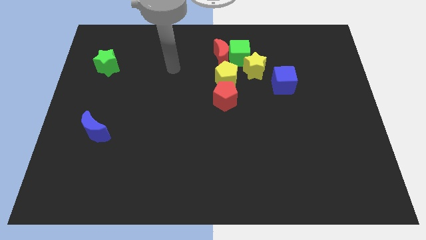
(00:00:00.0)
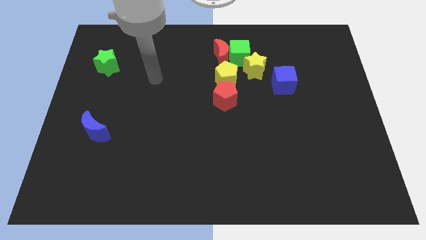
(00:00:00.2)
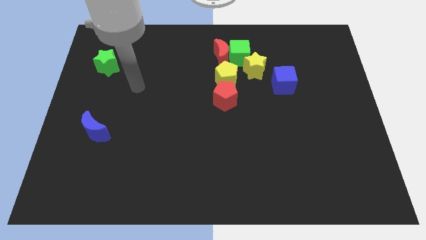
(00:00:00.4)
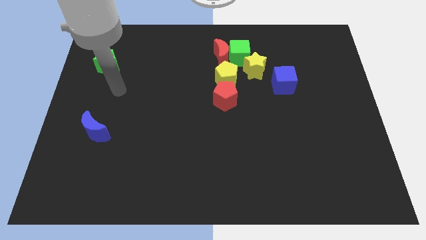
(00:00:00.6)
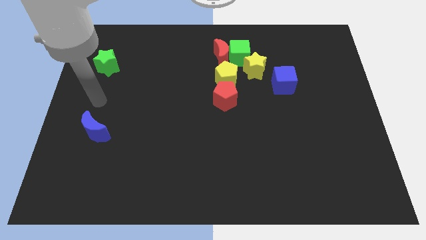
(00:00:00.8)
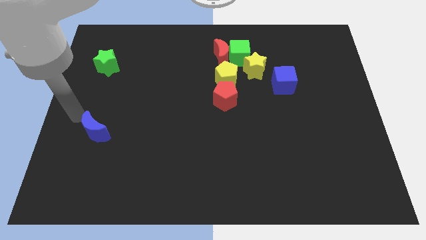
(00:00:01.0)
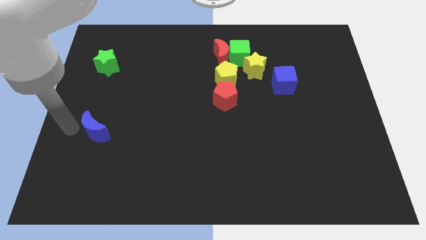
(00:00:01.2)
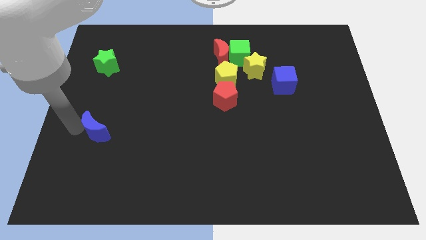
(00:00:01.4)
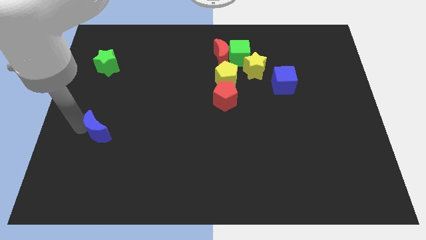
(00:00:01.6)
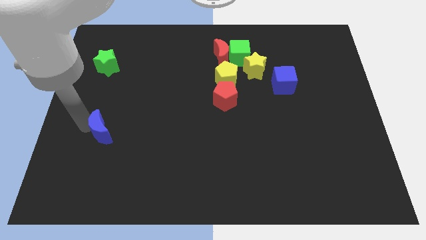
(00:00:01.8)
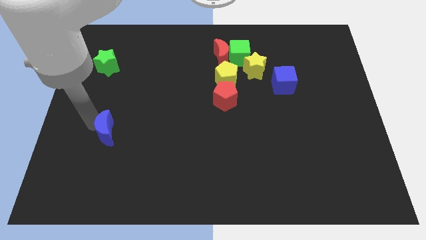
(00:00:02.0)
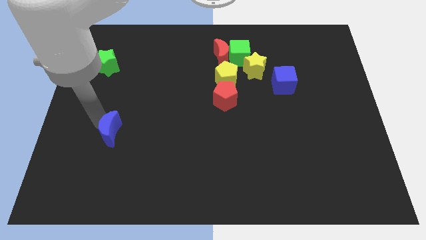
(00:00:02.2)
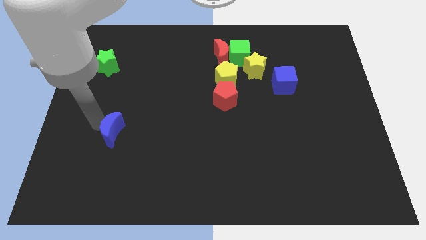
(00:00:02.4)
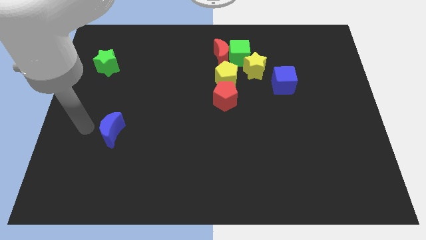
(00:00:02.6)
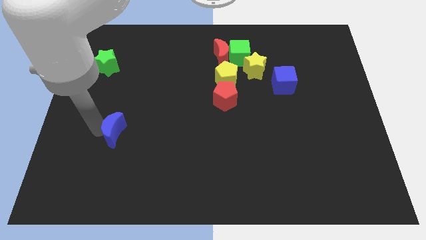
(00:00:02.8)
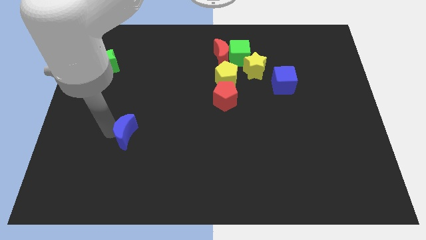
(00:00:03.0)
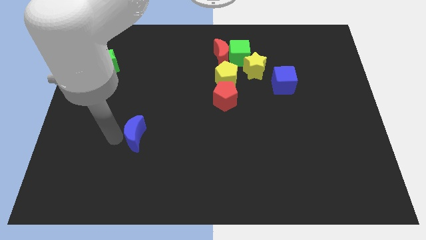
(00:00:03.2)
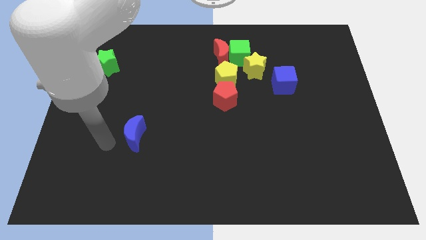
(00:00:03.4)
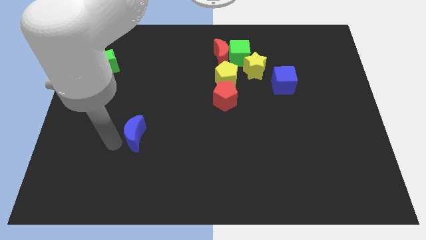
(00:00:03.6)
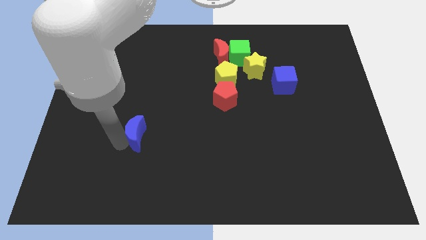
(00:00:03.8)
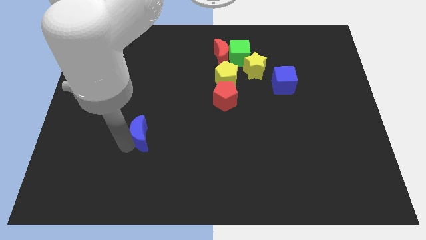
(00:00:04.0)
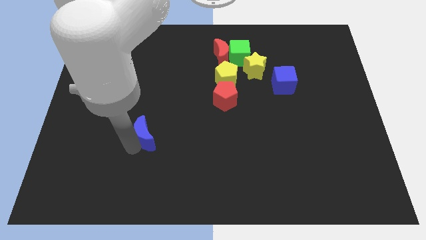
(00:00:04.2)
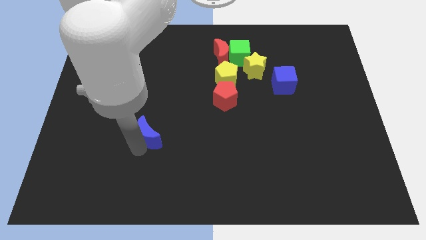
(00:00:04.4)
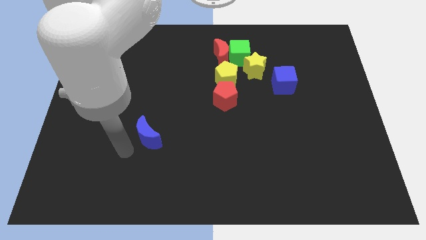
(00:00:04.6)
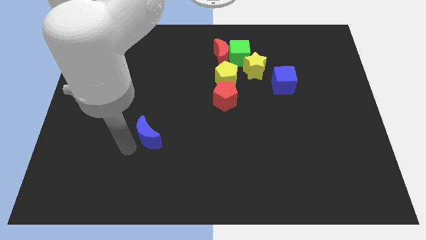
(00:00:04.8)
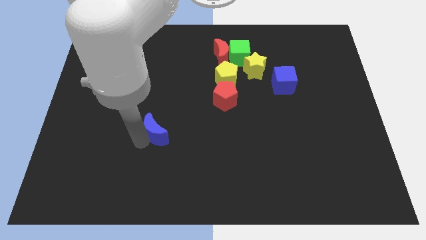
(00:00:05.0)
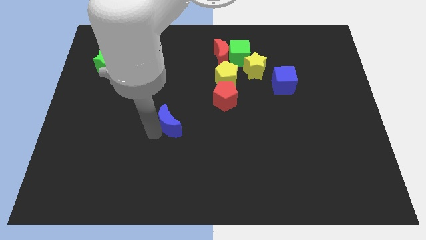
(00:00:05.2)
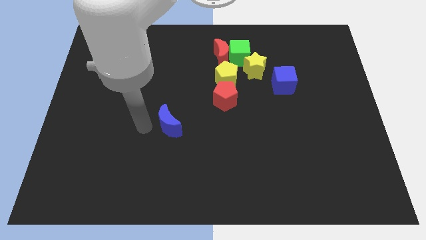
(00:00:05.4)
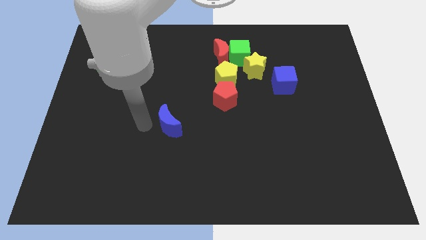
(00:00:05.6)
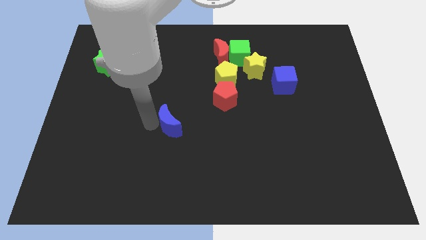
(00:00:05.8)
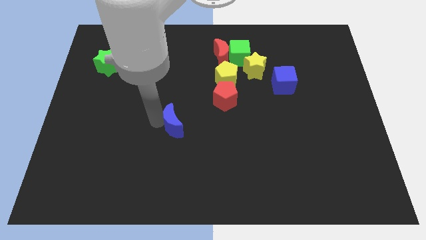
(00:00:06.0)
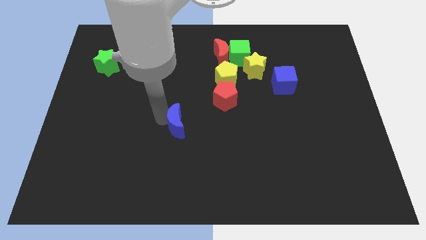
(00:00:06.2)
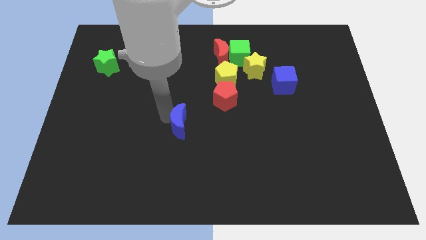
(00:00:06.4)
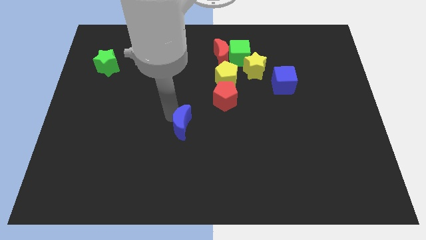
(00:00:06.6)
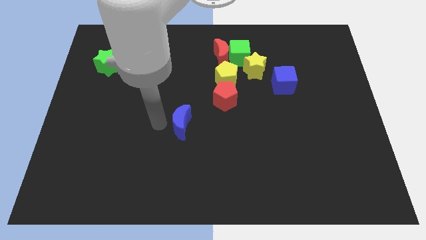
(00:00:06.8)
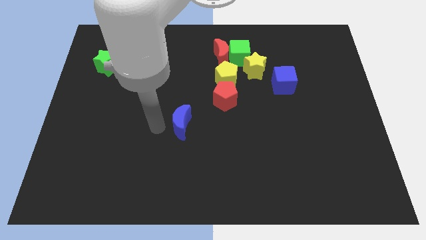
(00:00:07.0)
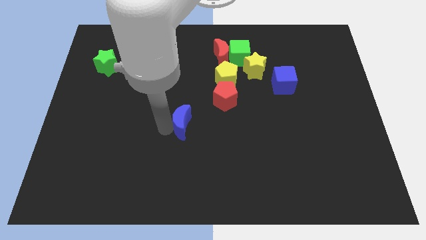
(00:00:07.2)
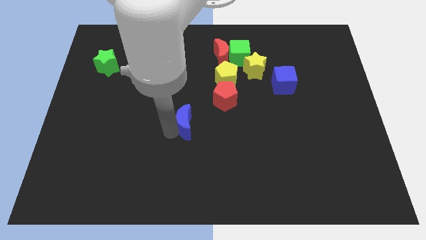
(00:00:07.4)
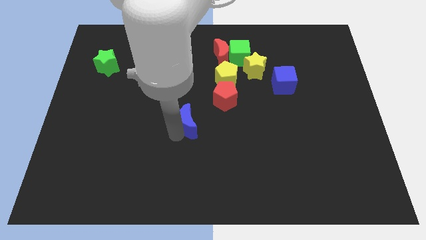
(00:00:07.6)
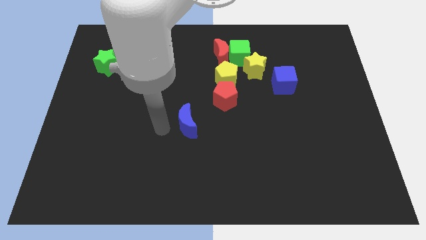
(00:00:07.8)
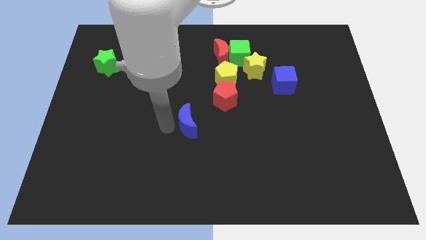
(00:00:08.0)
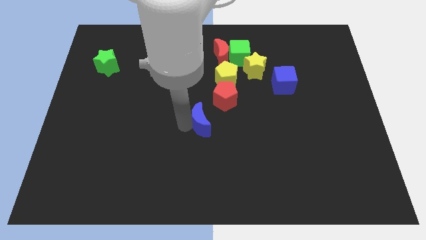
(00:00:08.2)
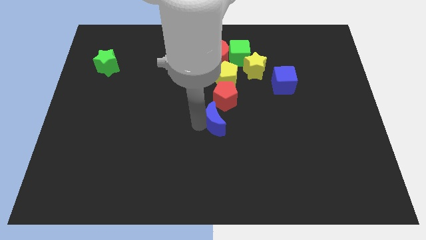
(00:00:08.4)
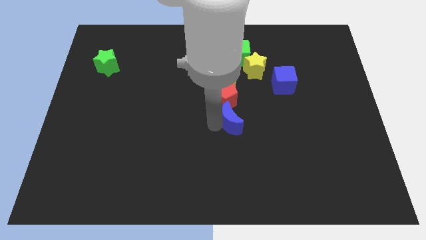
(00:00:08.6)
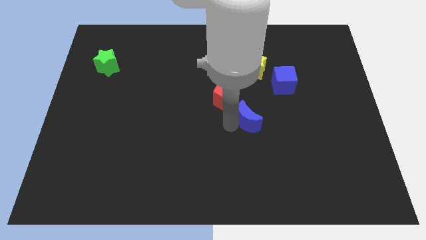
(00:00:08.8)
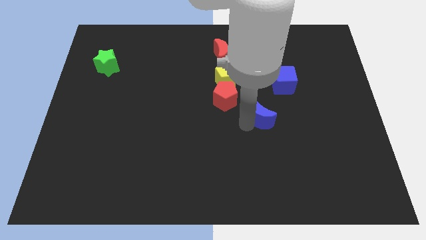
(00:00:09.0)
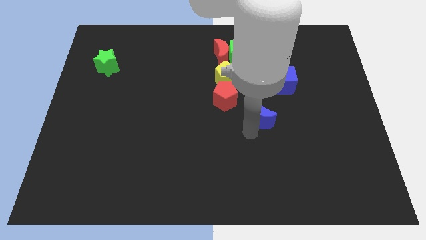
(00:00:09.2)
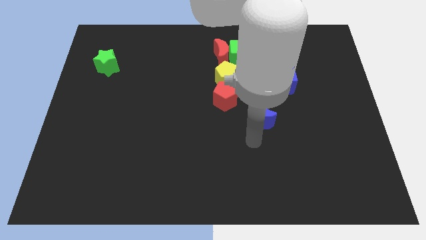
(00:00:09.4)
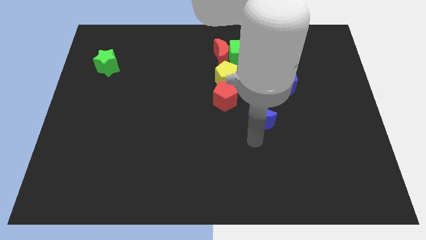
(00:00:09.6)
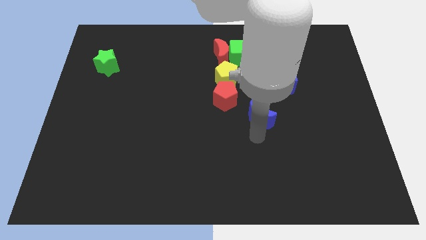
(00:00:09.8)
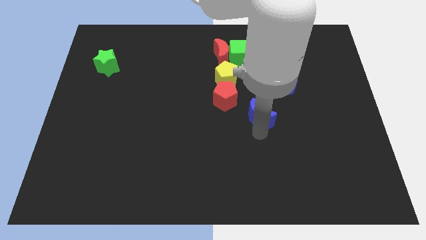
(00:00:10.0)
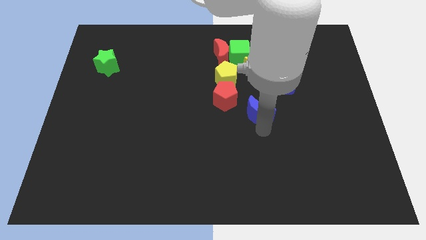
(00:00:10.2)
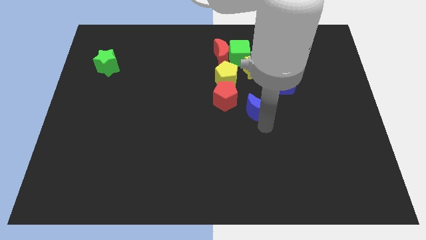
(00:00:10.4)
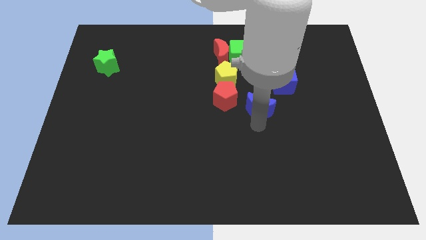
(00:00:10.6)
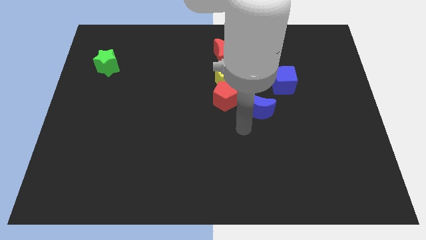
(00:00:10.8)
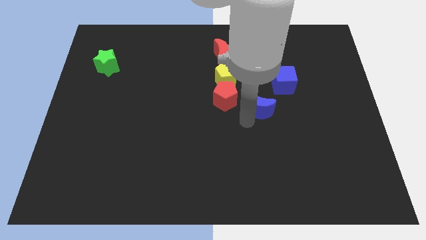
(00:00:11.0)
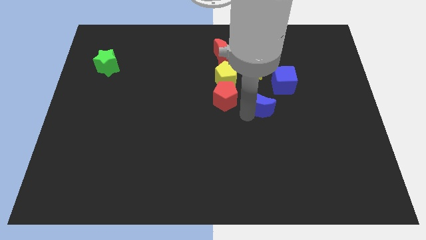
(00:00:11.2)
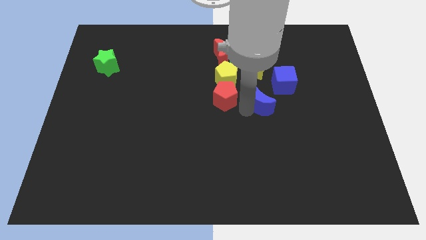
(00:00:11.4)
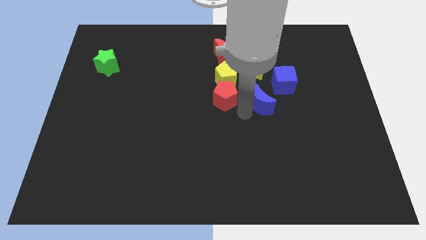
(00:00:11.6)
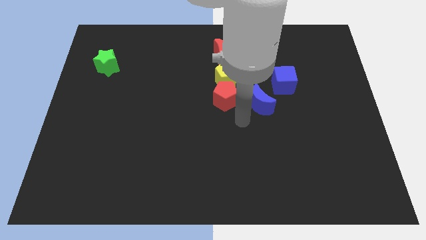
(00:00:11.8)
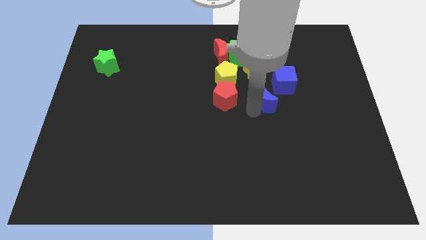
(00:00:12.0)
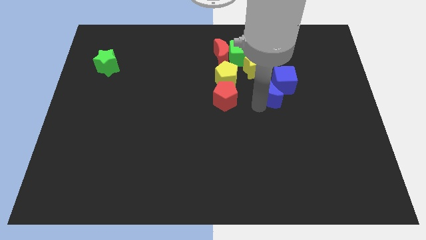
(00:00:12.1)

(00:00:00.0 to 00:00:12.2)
slide the blue moon next to the blue cube

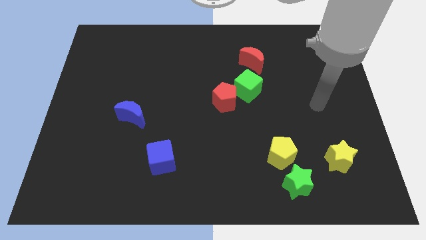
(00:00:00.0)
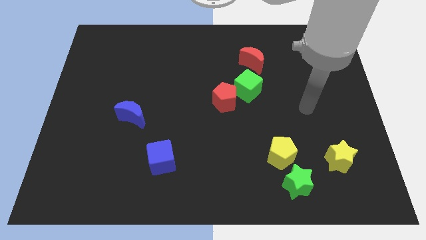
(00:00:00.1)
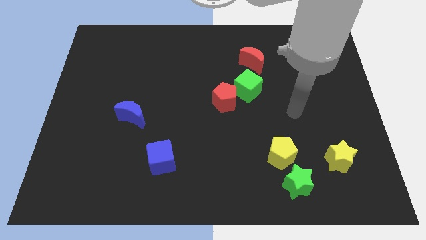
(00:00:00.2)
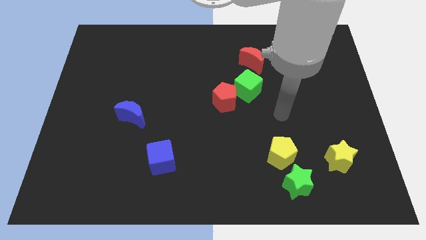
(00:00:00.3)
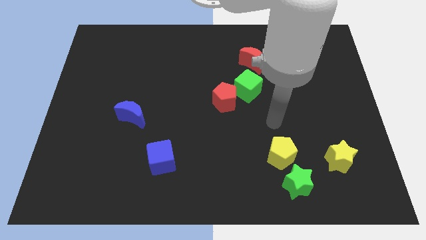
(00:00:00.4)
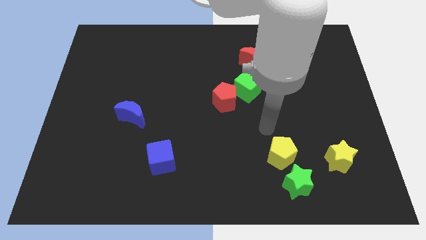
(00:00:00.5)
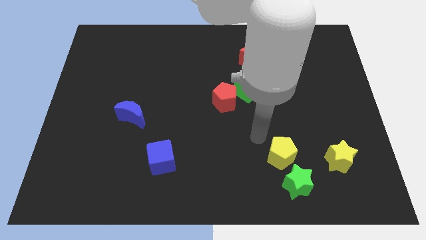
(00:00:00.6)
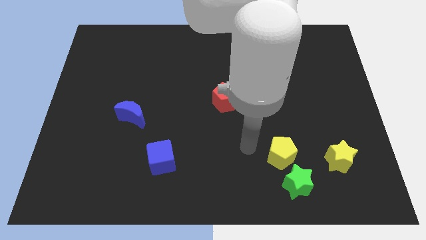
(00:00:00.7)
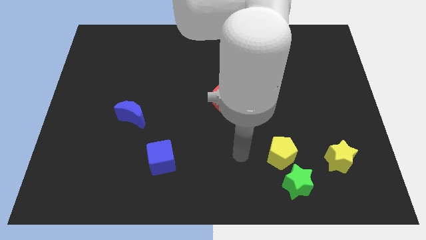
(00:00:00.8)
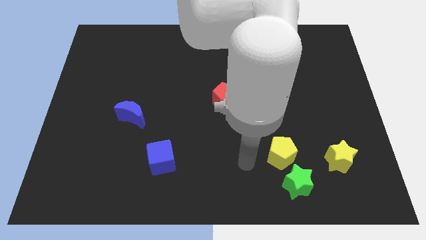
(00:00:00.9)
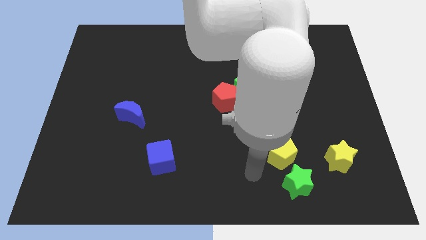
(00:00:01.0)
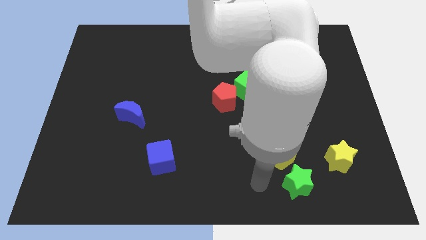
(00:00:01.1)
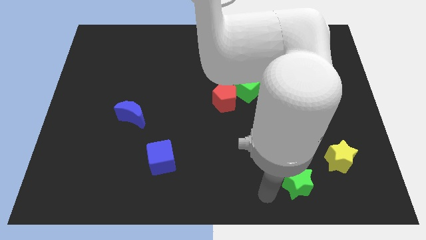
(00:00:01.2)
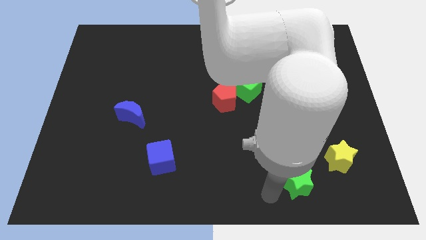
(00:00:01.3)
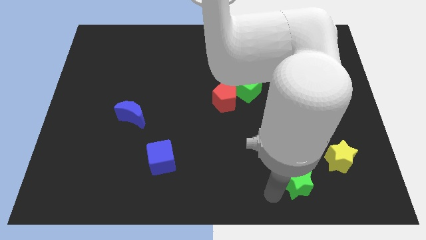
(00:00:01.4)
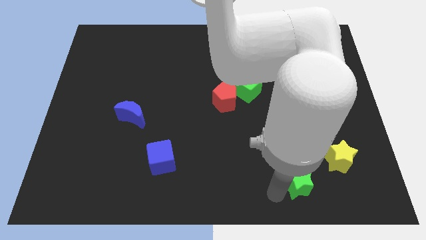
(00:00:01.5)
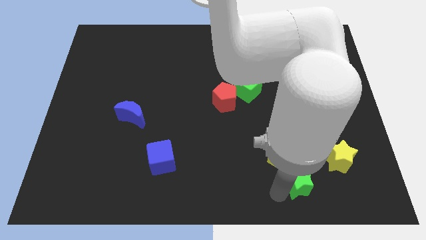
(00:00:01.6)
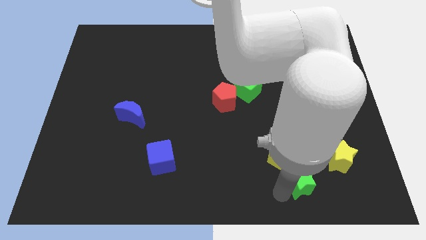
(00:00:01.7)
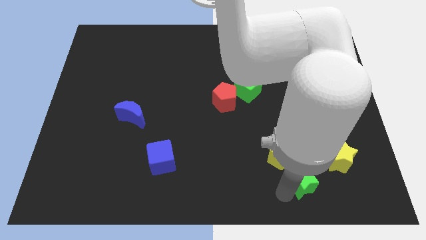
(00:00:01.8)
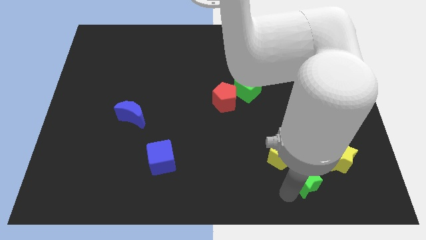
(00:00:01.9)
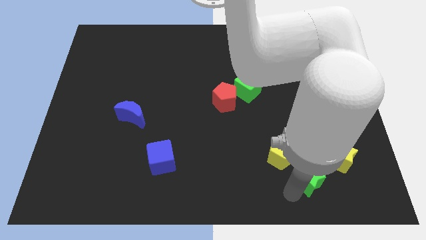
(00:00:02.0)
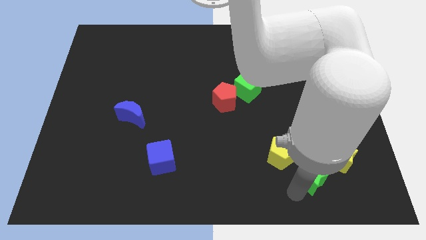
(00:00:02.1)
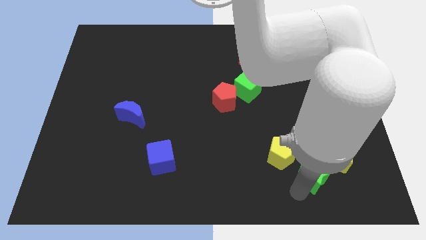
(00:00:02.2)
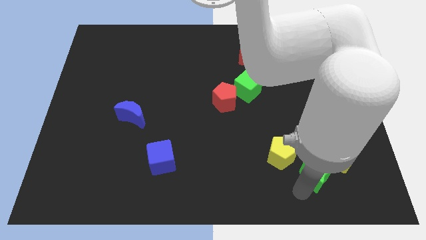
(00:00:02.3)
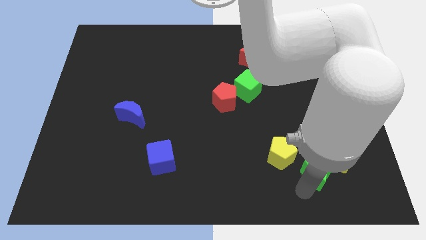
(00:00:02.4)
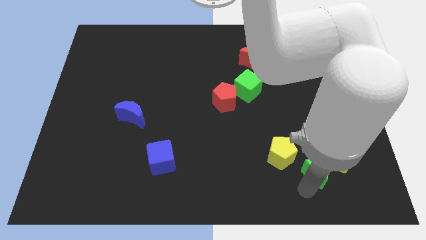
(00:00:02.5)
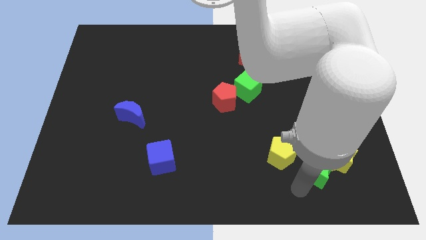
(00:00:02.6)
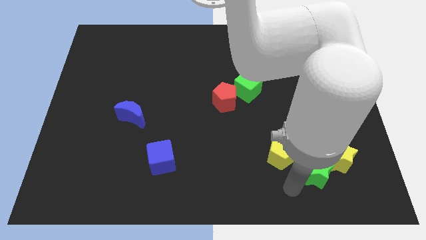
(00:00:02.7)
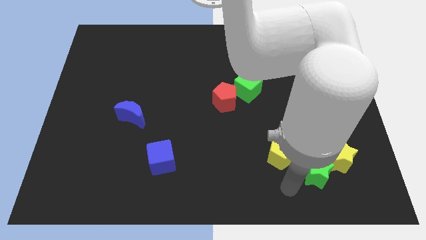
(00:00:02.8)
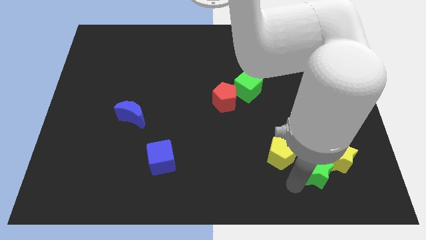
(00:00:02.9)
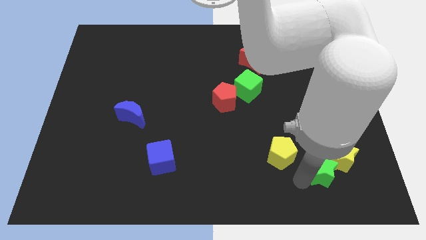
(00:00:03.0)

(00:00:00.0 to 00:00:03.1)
slide the green star towards the yellow star
